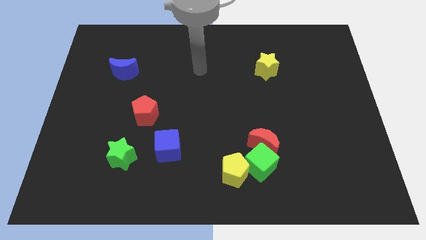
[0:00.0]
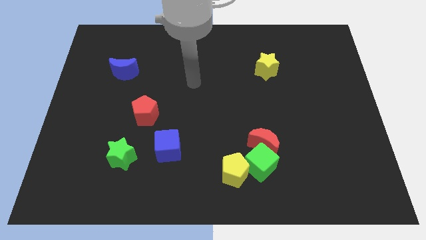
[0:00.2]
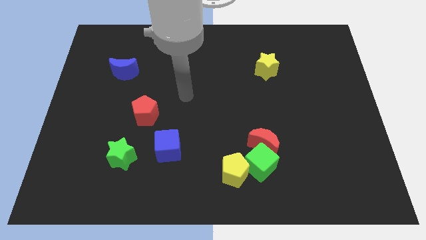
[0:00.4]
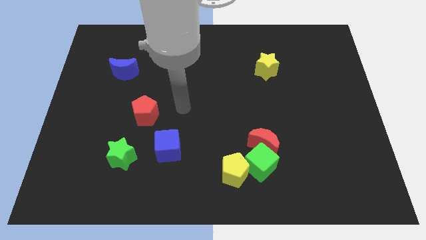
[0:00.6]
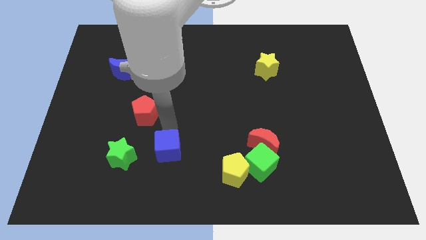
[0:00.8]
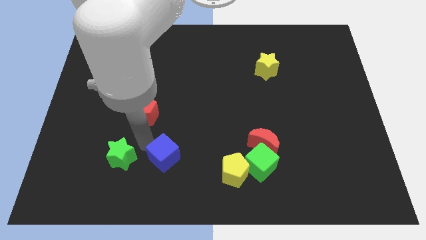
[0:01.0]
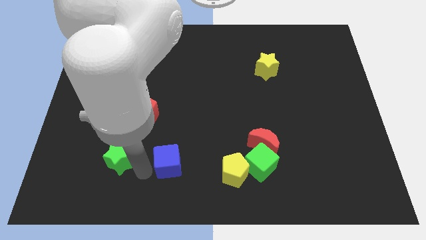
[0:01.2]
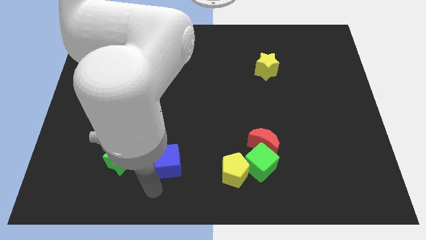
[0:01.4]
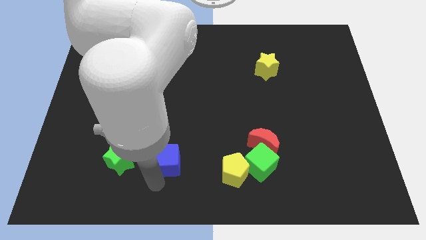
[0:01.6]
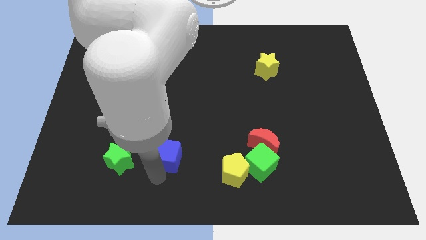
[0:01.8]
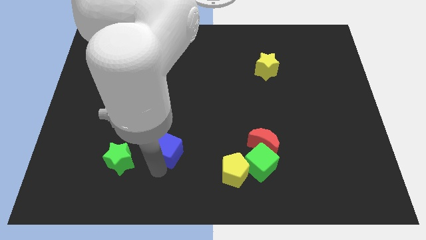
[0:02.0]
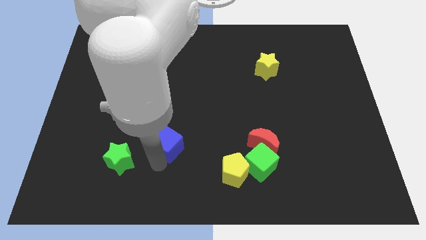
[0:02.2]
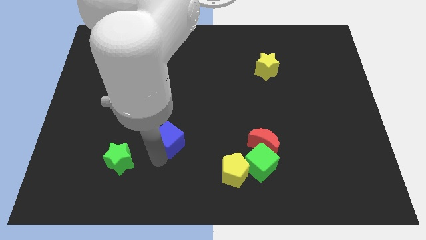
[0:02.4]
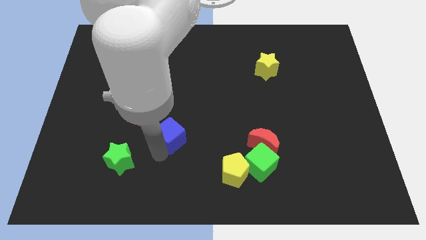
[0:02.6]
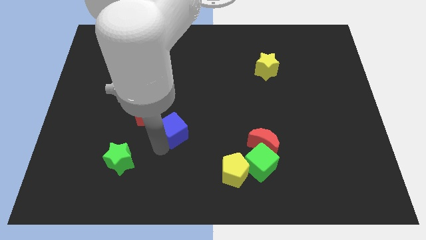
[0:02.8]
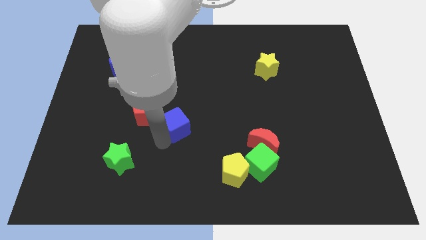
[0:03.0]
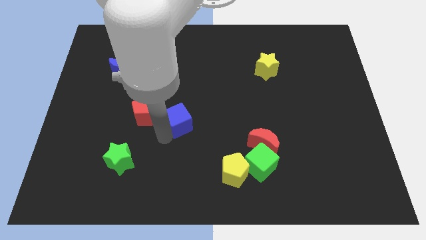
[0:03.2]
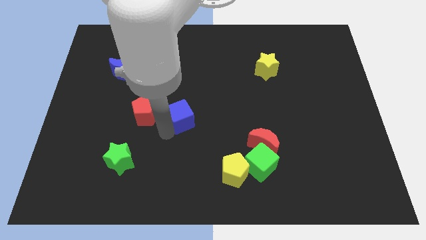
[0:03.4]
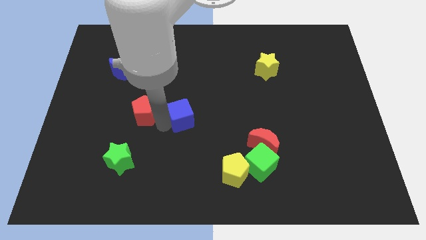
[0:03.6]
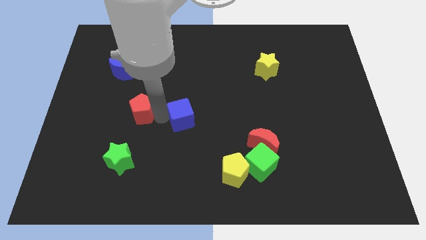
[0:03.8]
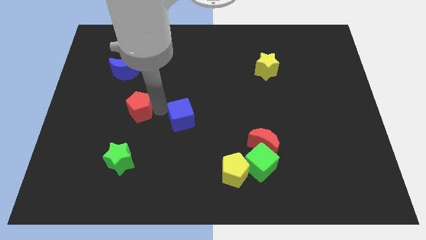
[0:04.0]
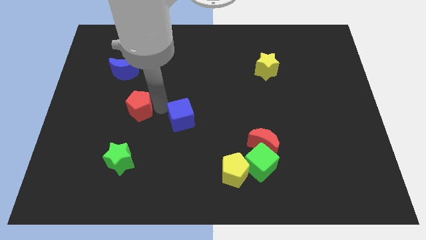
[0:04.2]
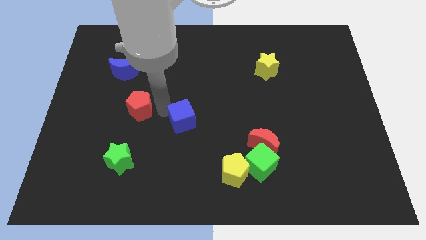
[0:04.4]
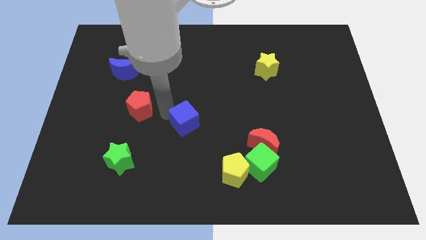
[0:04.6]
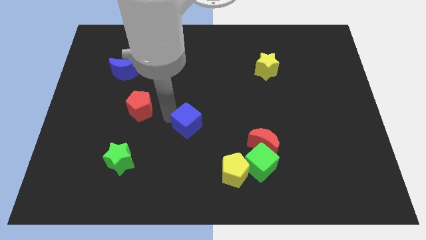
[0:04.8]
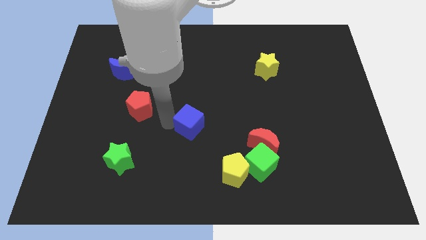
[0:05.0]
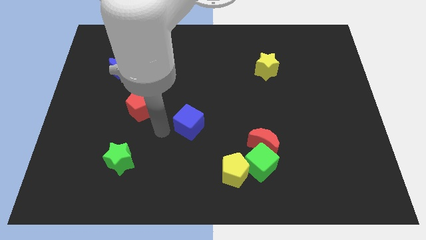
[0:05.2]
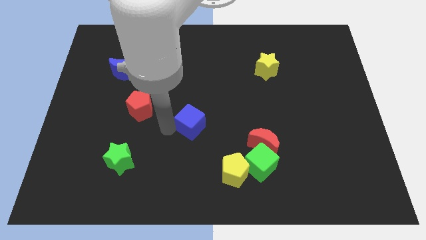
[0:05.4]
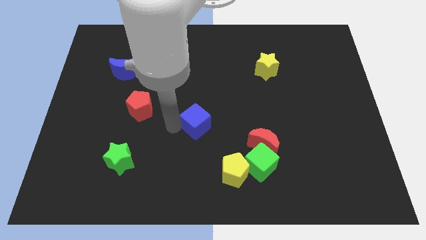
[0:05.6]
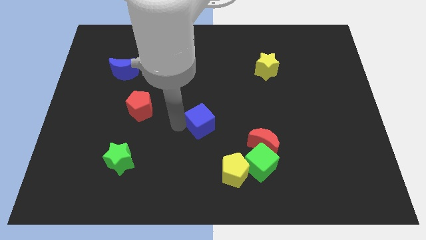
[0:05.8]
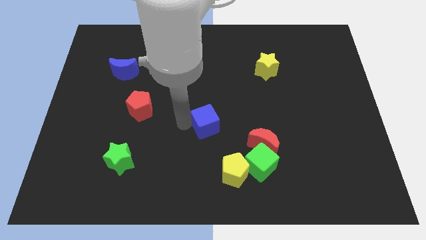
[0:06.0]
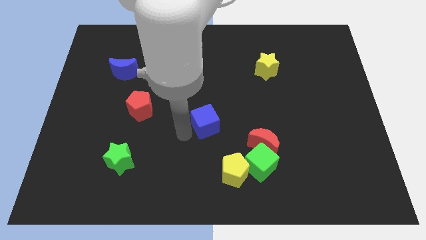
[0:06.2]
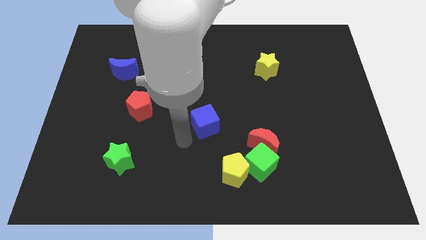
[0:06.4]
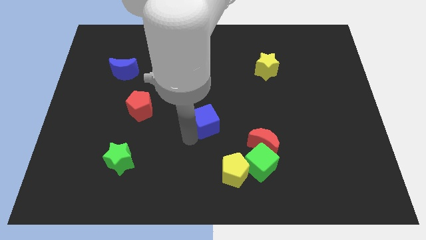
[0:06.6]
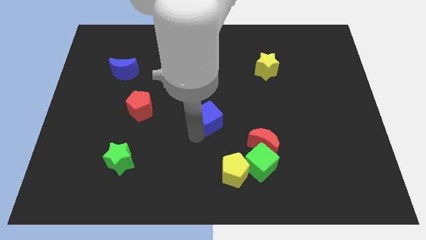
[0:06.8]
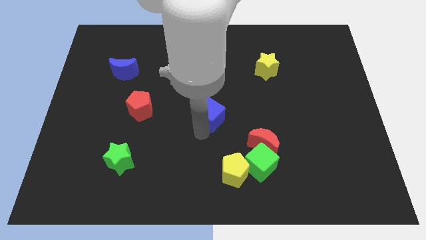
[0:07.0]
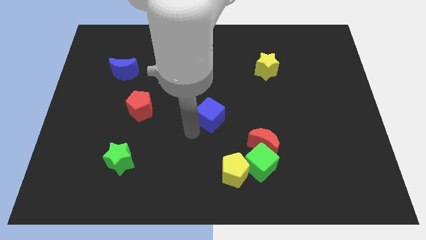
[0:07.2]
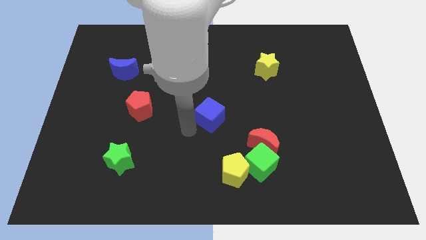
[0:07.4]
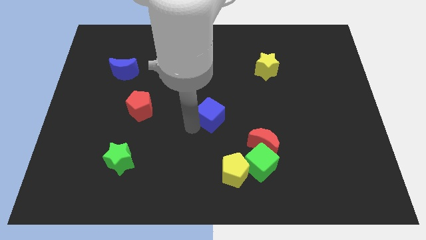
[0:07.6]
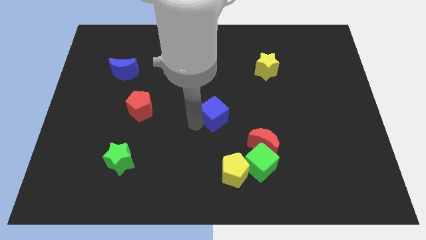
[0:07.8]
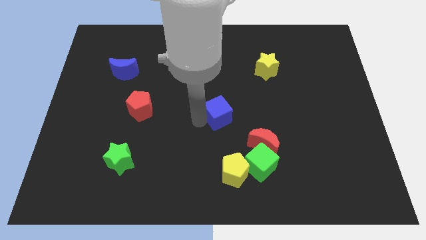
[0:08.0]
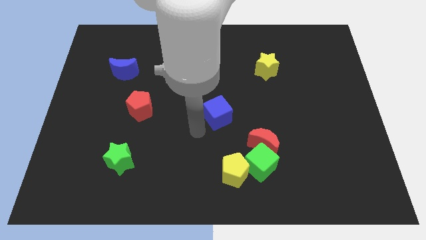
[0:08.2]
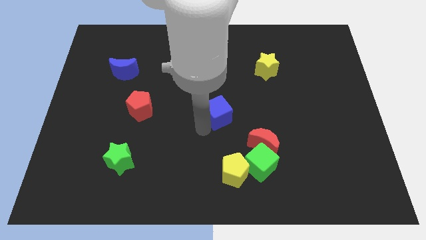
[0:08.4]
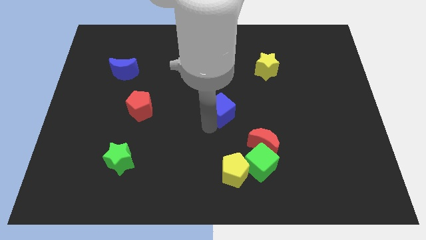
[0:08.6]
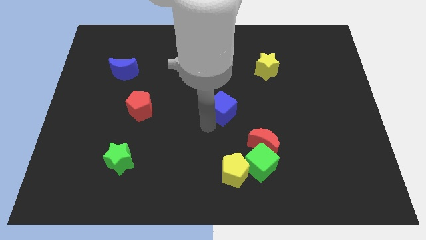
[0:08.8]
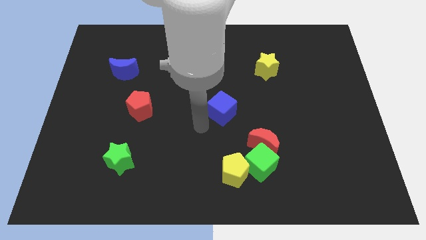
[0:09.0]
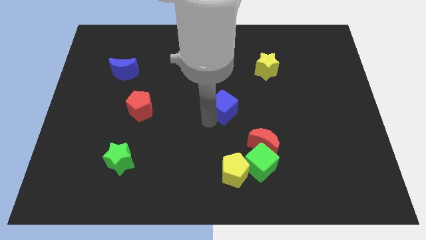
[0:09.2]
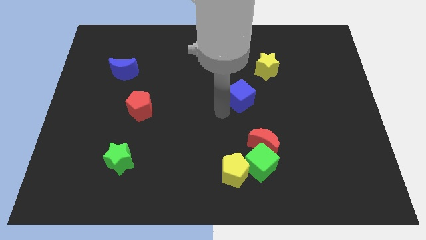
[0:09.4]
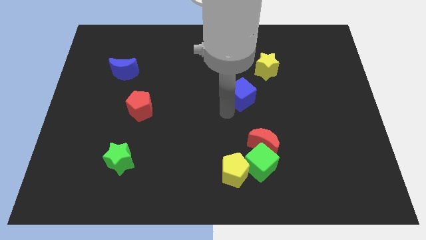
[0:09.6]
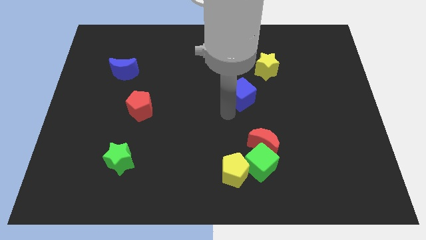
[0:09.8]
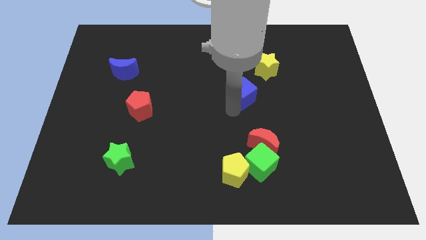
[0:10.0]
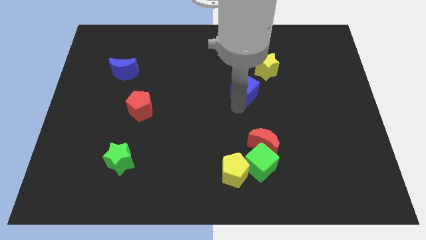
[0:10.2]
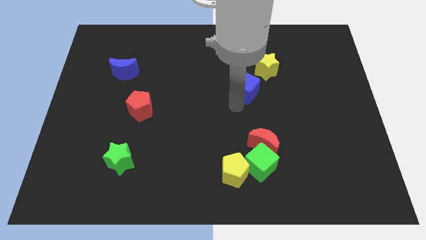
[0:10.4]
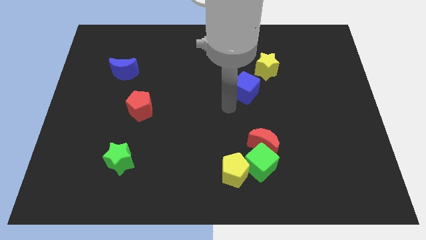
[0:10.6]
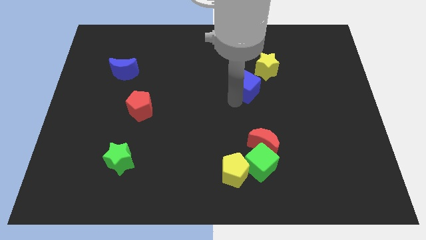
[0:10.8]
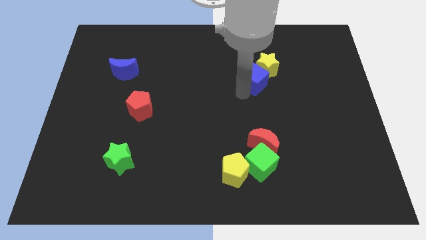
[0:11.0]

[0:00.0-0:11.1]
slide the blue cube close to the yellow star

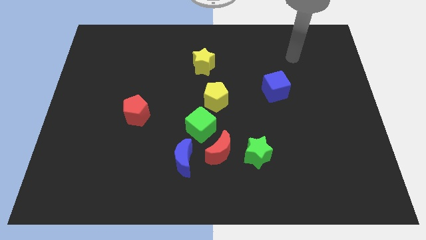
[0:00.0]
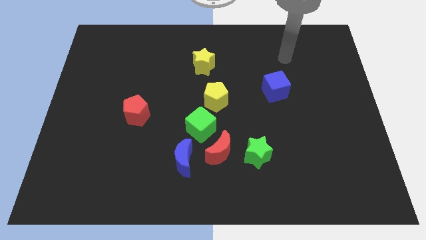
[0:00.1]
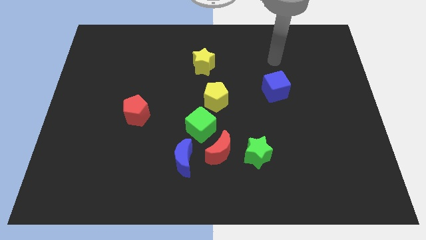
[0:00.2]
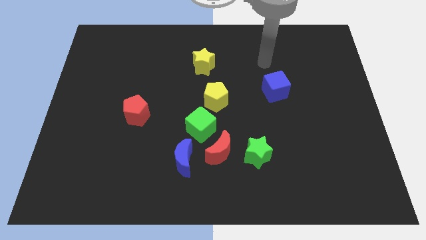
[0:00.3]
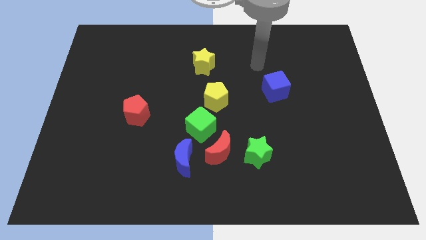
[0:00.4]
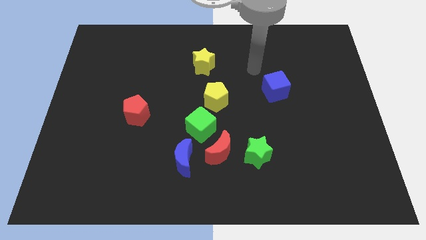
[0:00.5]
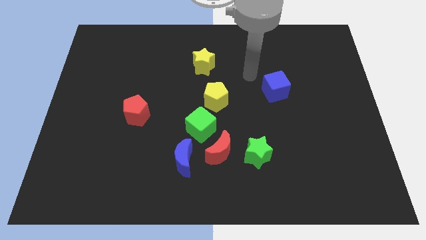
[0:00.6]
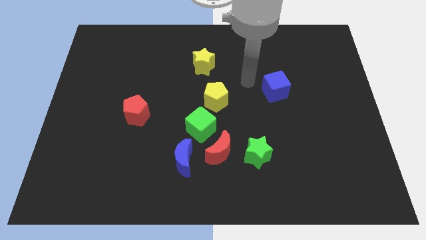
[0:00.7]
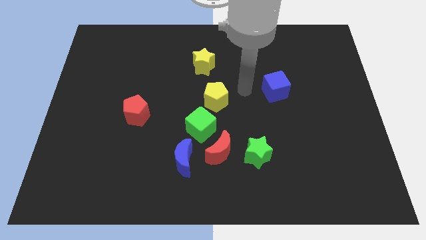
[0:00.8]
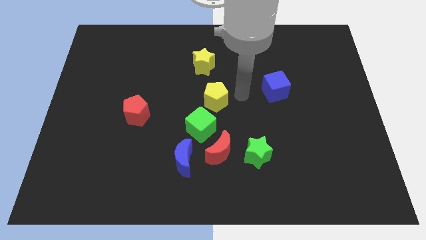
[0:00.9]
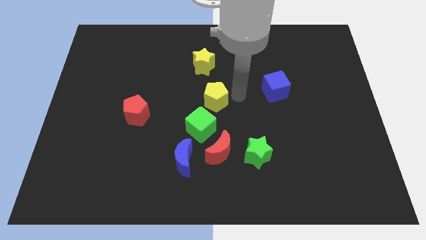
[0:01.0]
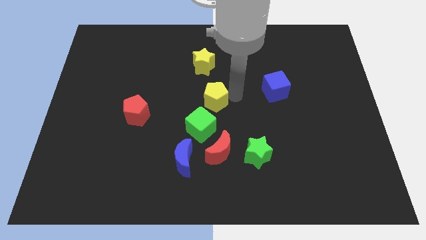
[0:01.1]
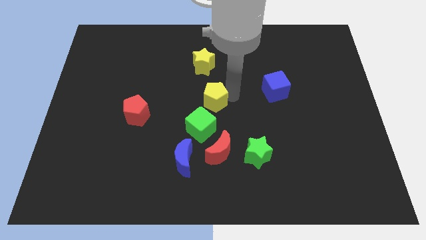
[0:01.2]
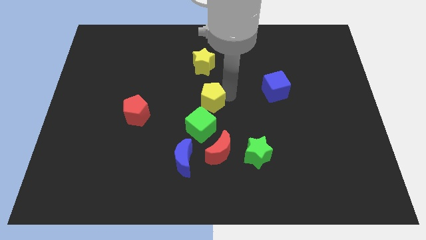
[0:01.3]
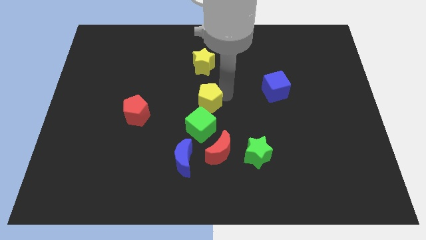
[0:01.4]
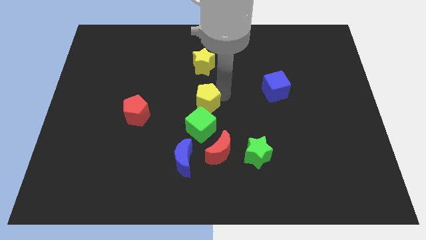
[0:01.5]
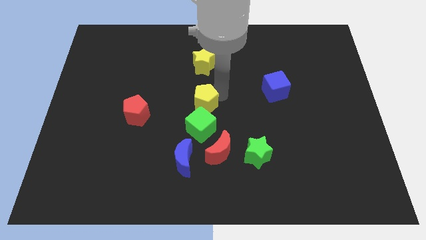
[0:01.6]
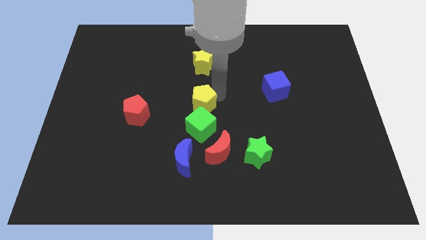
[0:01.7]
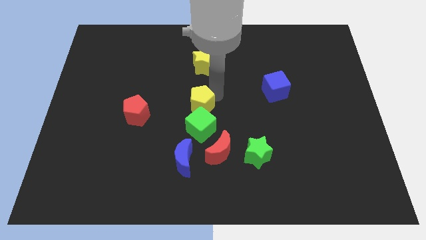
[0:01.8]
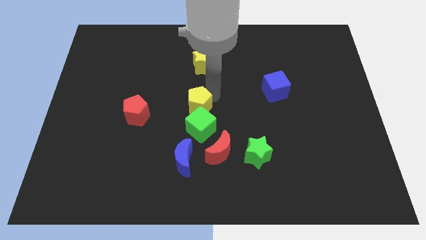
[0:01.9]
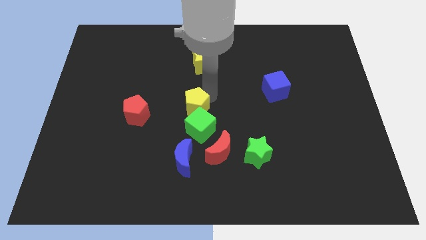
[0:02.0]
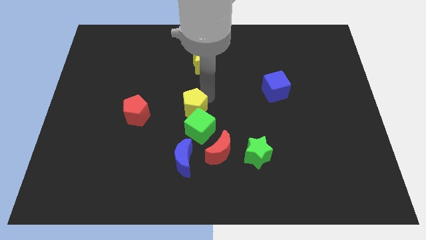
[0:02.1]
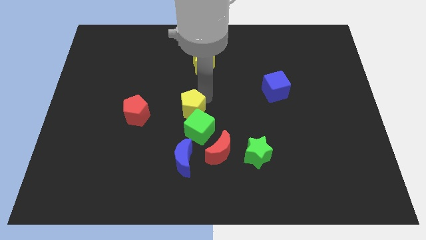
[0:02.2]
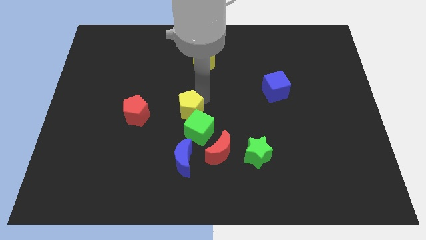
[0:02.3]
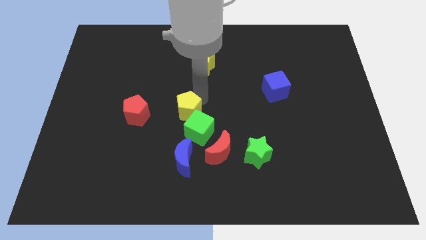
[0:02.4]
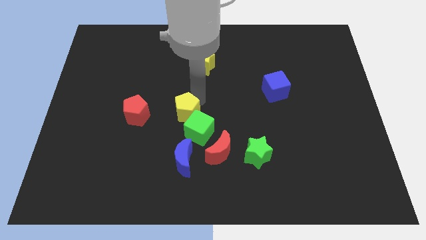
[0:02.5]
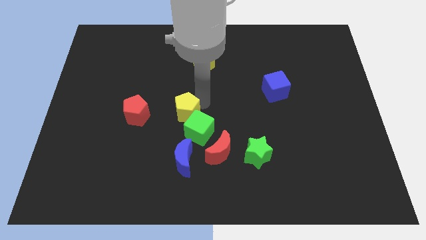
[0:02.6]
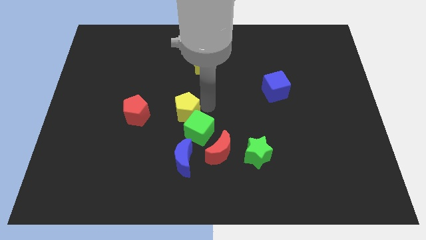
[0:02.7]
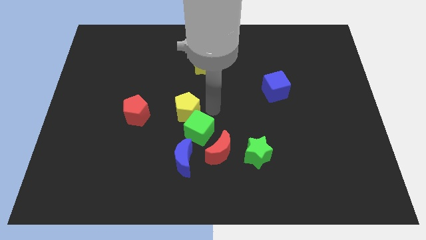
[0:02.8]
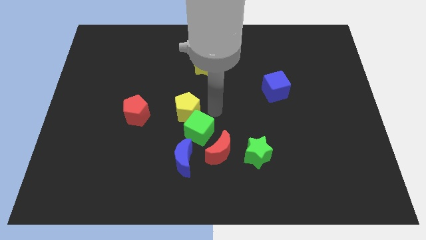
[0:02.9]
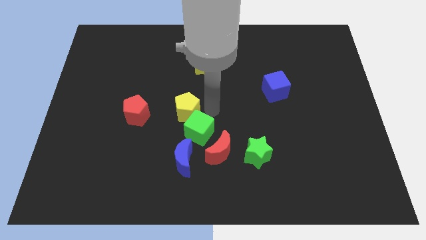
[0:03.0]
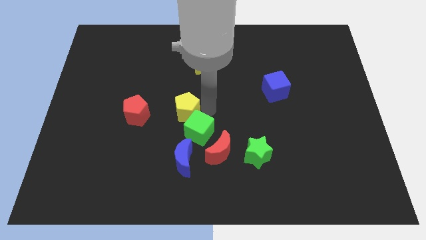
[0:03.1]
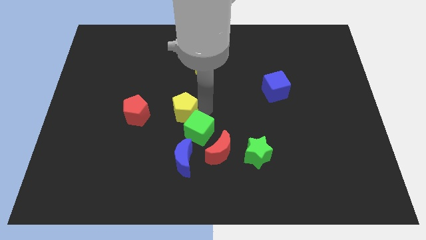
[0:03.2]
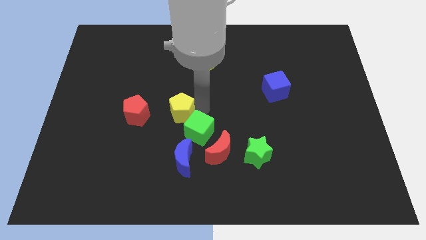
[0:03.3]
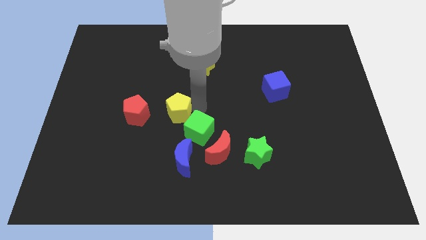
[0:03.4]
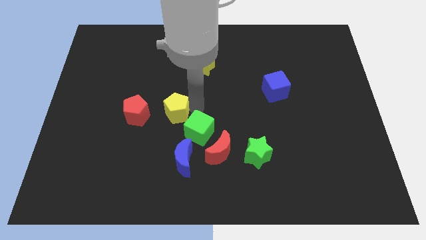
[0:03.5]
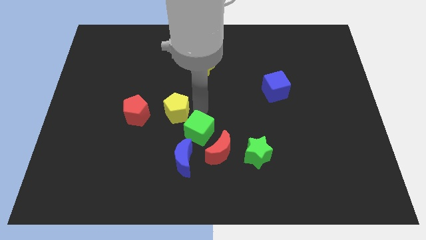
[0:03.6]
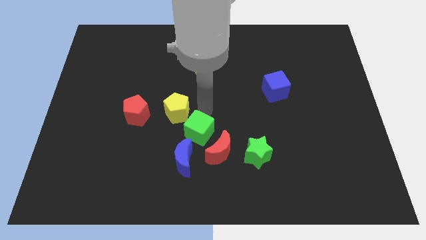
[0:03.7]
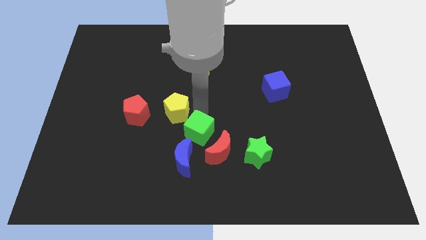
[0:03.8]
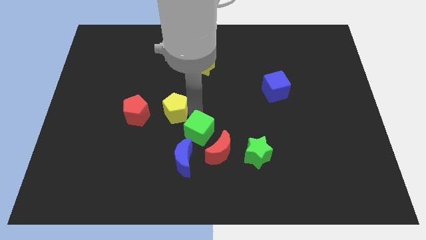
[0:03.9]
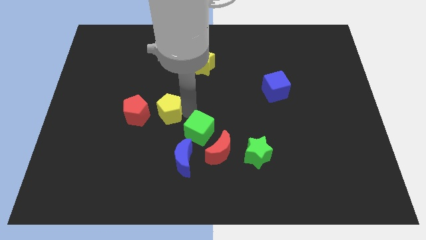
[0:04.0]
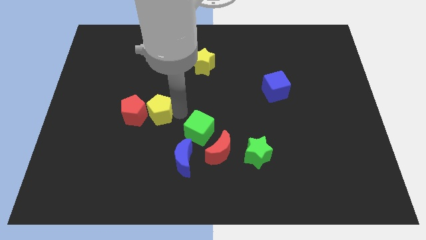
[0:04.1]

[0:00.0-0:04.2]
put the yellow pentagon close to the red pentagon
